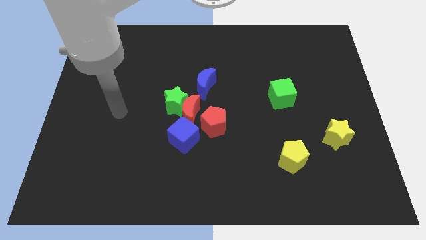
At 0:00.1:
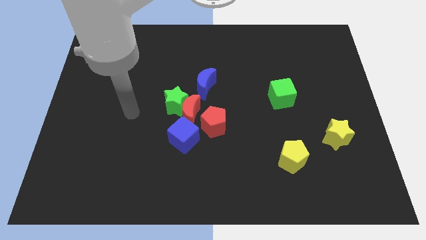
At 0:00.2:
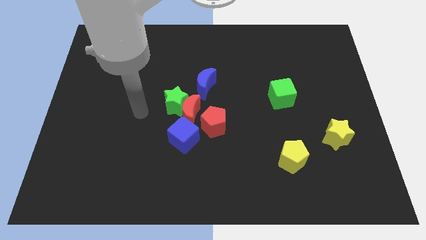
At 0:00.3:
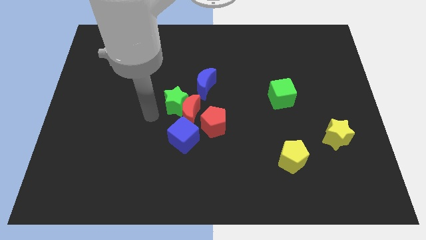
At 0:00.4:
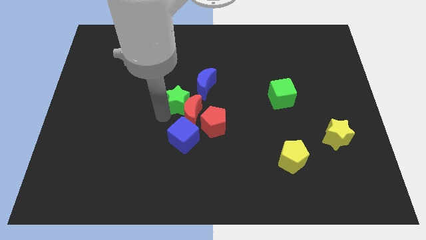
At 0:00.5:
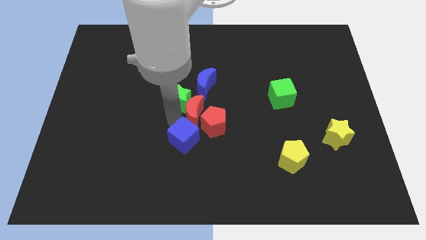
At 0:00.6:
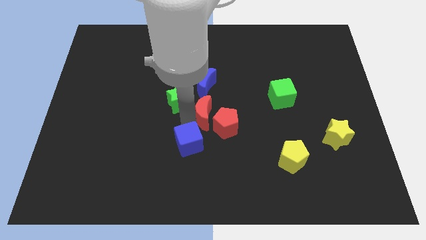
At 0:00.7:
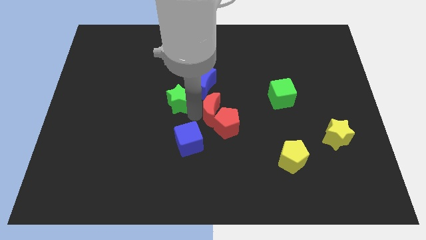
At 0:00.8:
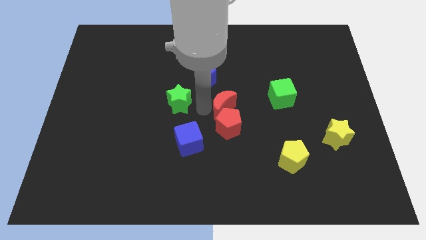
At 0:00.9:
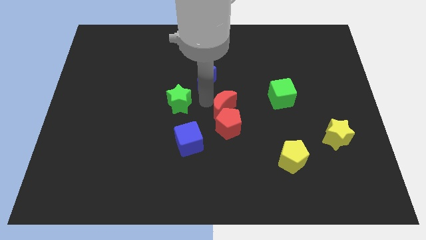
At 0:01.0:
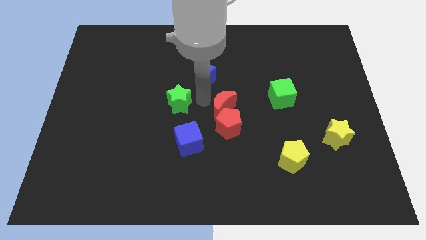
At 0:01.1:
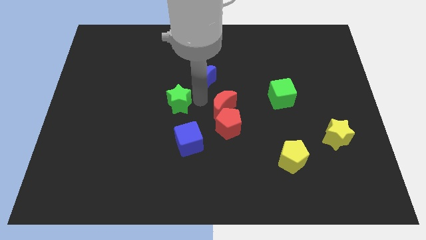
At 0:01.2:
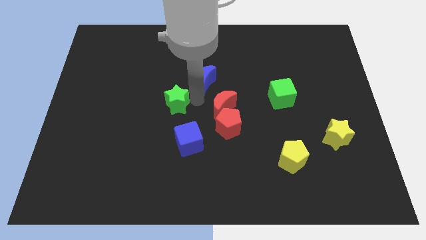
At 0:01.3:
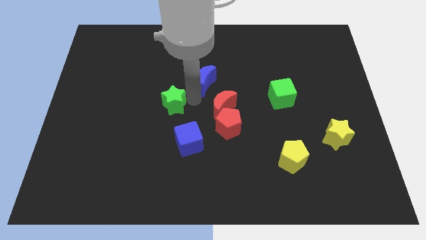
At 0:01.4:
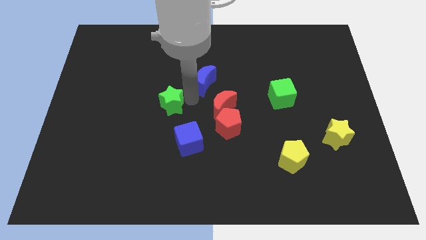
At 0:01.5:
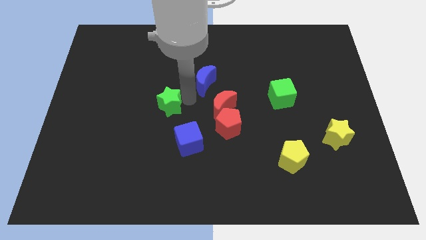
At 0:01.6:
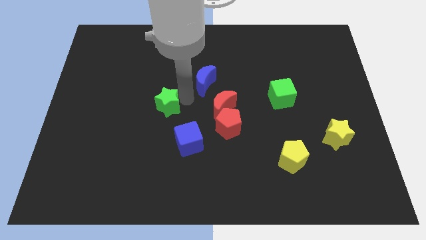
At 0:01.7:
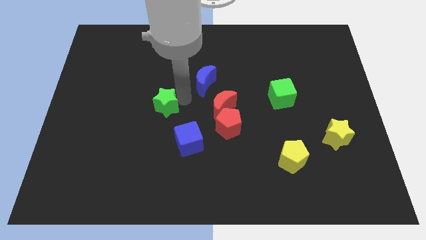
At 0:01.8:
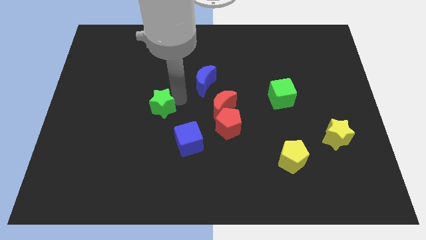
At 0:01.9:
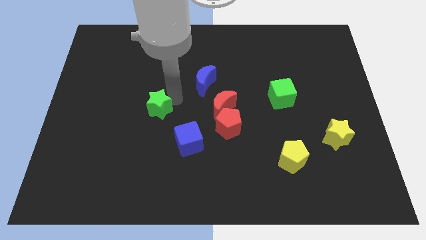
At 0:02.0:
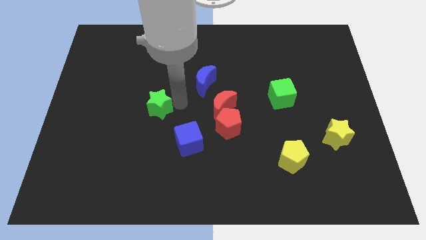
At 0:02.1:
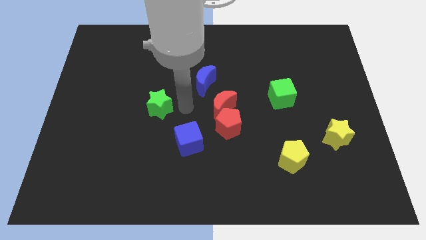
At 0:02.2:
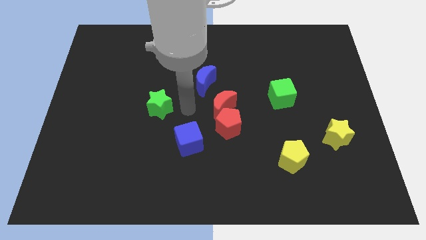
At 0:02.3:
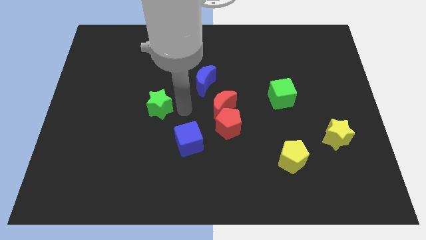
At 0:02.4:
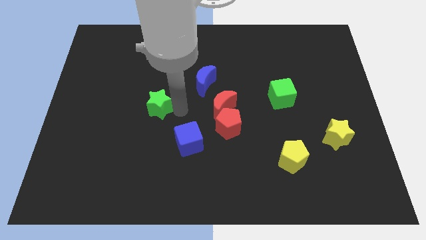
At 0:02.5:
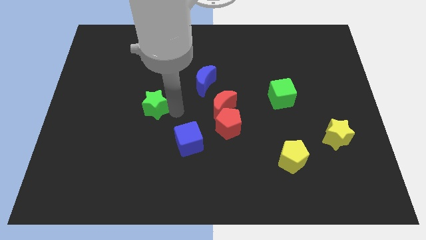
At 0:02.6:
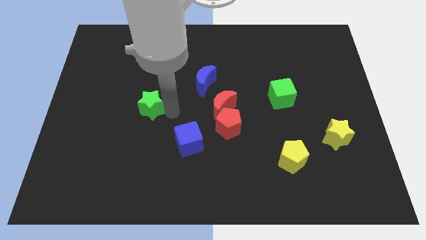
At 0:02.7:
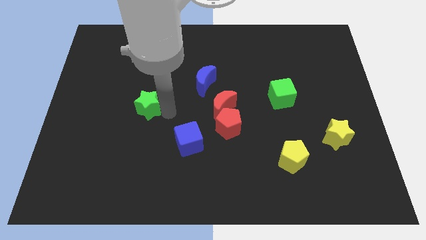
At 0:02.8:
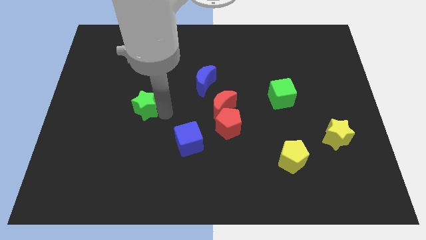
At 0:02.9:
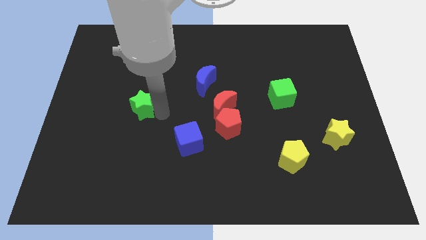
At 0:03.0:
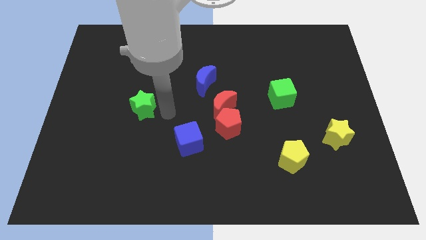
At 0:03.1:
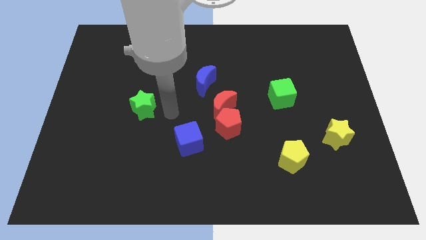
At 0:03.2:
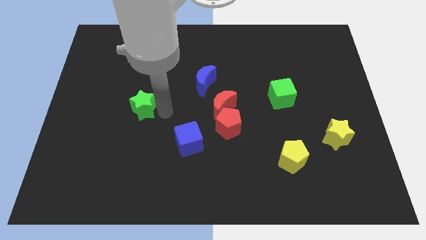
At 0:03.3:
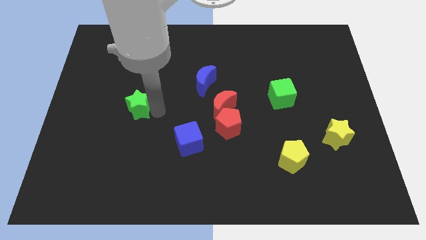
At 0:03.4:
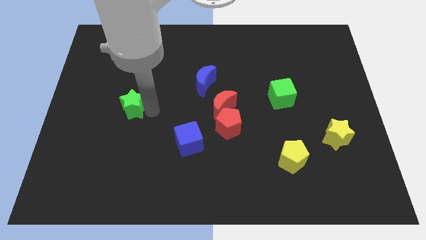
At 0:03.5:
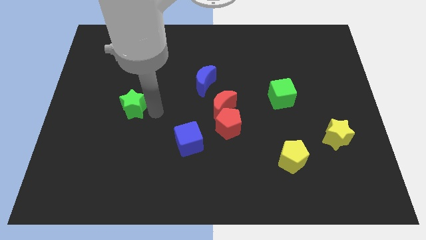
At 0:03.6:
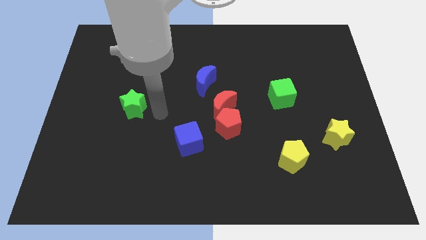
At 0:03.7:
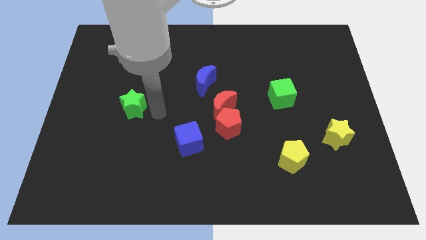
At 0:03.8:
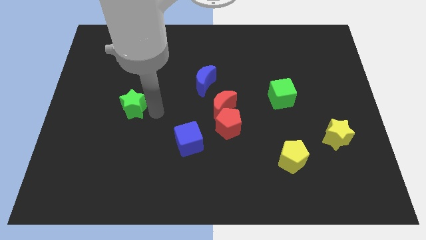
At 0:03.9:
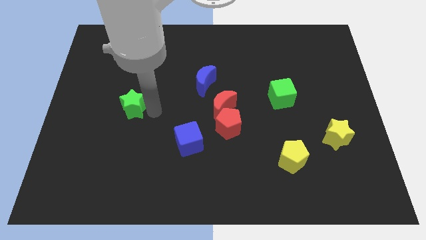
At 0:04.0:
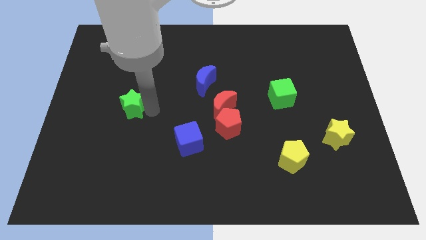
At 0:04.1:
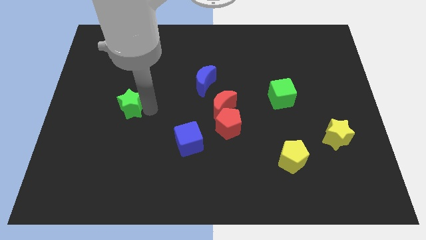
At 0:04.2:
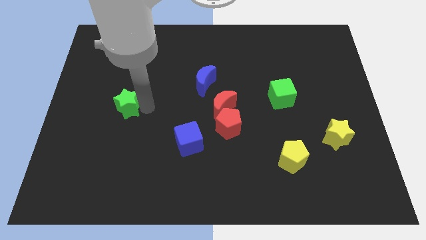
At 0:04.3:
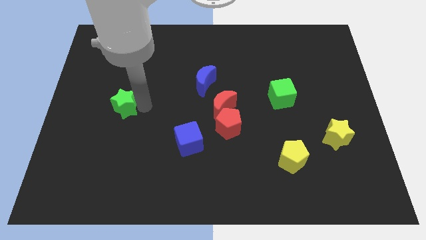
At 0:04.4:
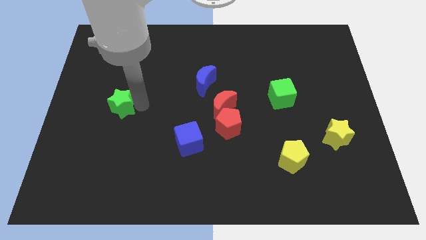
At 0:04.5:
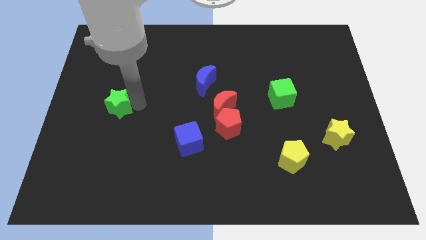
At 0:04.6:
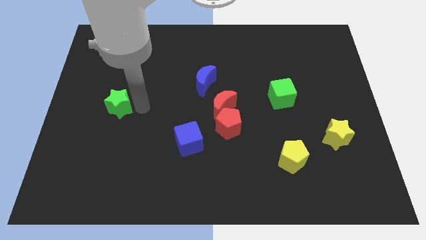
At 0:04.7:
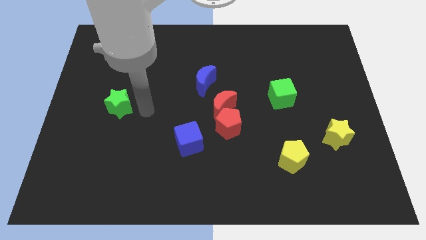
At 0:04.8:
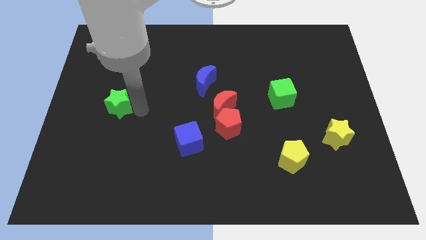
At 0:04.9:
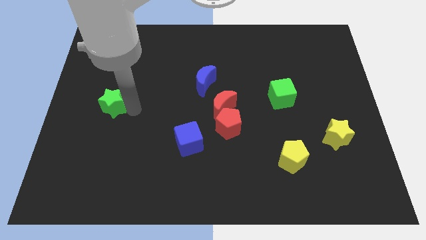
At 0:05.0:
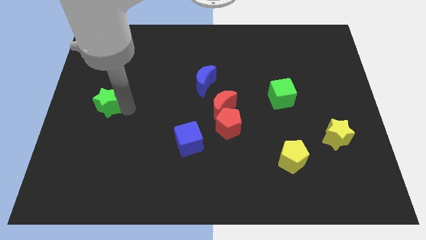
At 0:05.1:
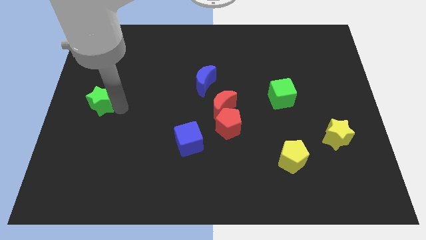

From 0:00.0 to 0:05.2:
push the green star to the center left

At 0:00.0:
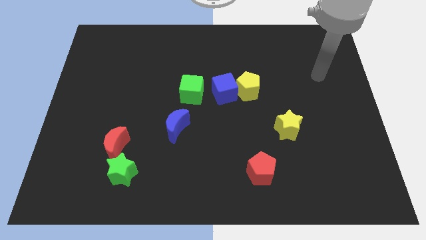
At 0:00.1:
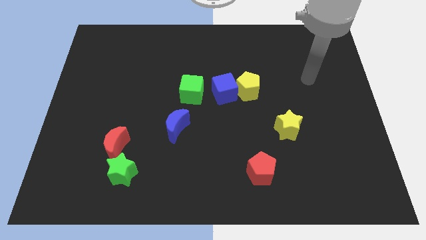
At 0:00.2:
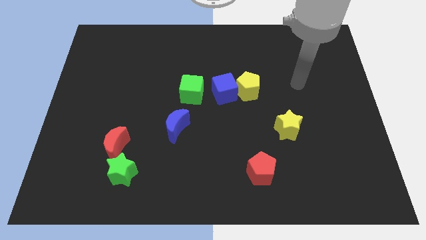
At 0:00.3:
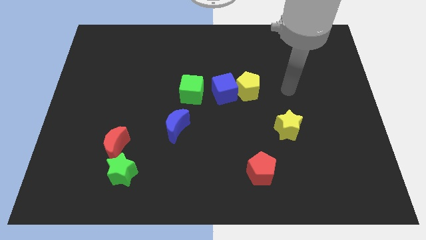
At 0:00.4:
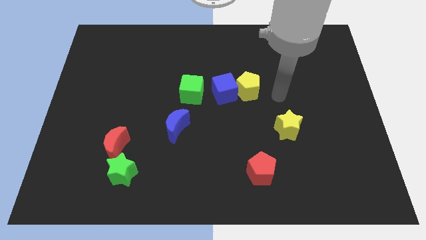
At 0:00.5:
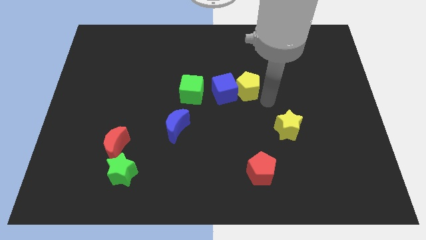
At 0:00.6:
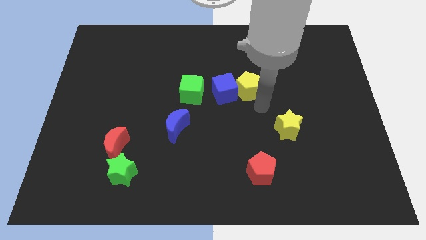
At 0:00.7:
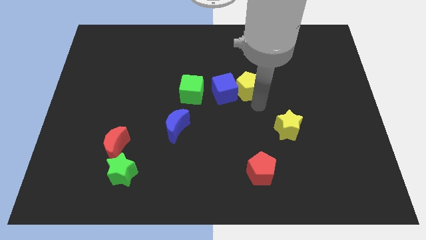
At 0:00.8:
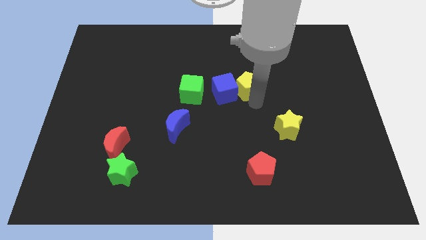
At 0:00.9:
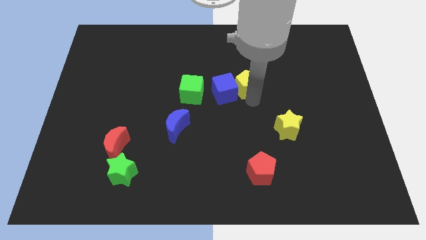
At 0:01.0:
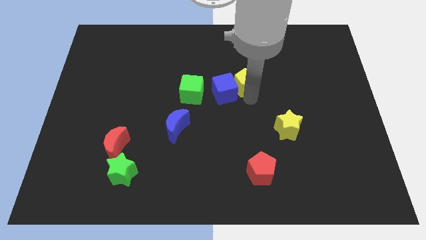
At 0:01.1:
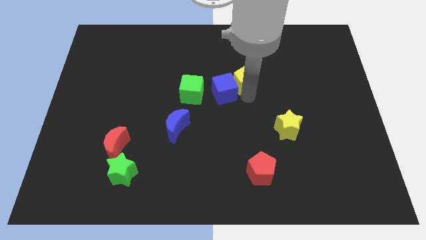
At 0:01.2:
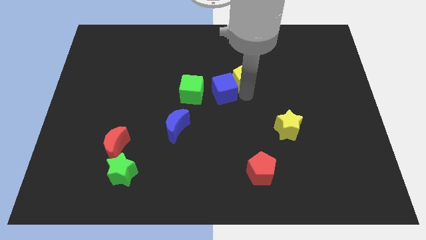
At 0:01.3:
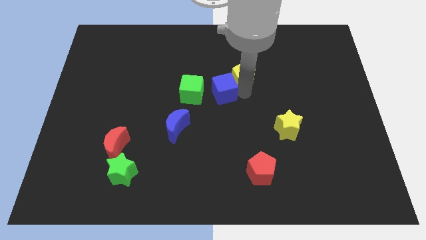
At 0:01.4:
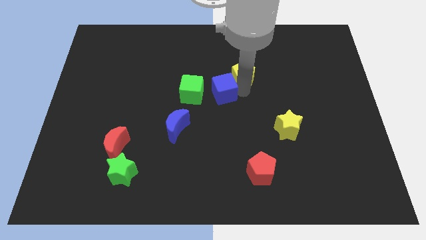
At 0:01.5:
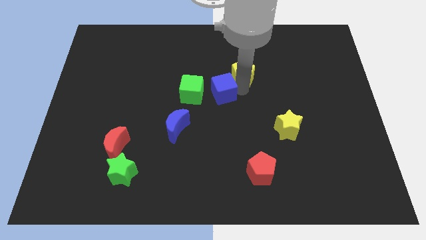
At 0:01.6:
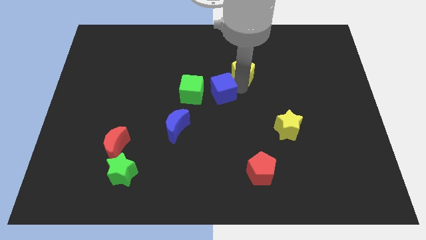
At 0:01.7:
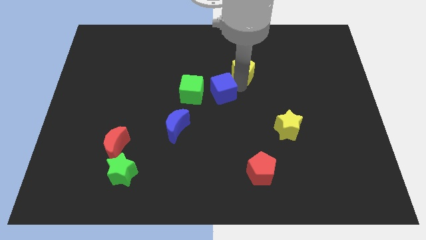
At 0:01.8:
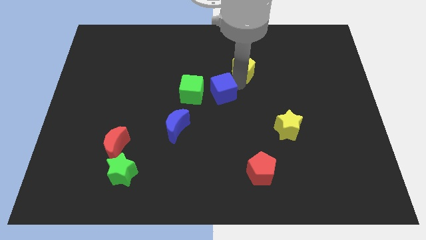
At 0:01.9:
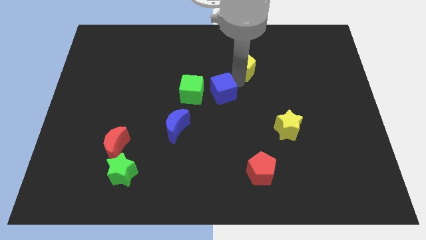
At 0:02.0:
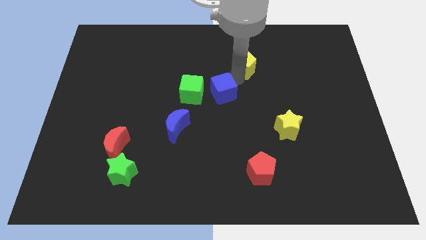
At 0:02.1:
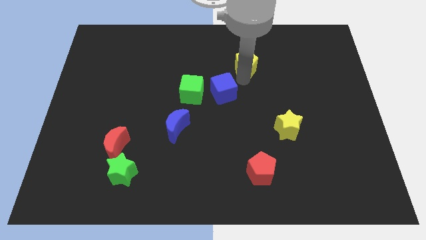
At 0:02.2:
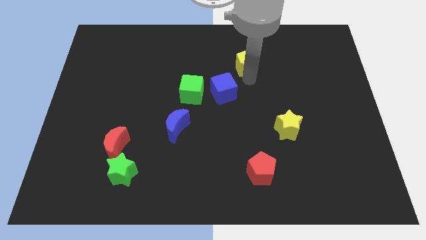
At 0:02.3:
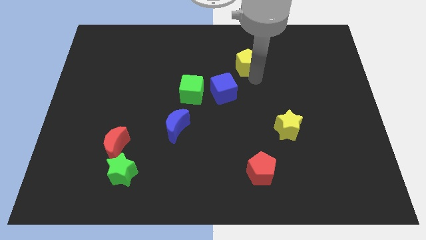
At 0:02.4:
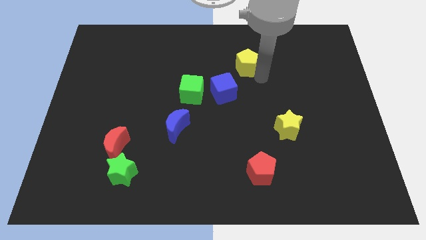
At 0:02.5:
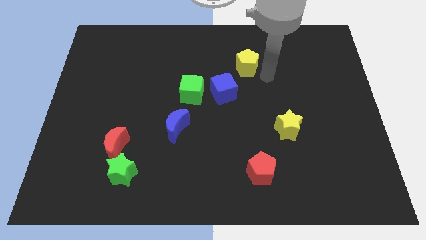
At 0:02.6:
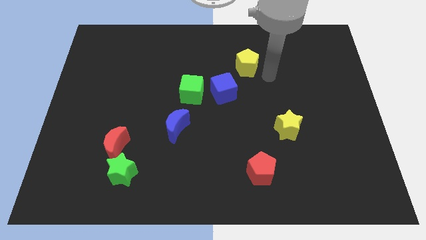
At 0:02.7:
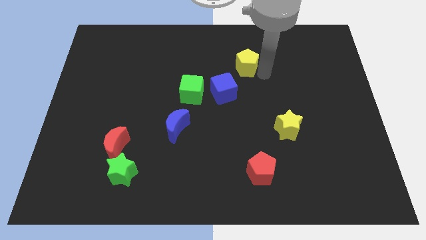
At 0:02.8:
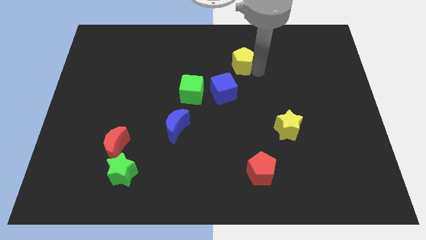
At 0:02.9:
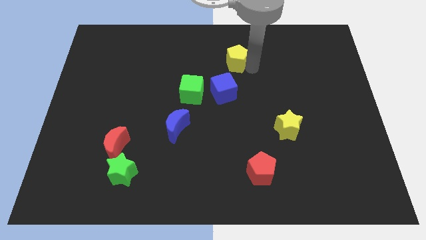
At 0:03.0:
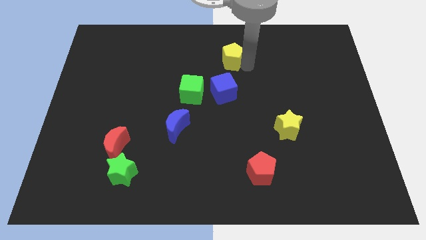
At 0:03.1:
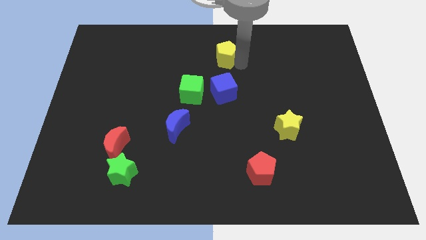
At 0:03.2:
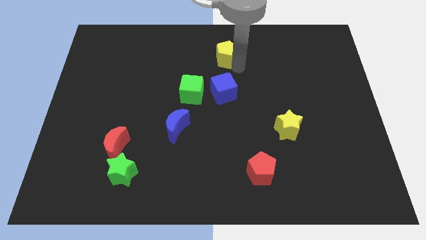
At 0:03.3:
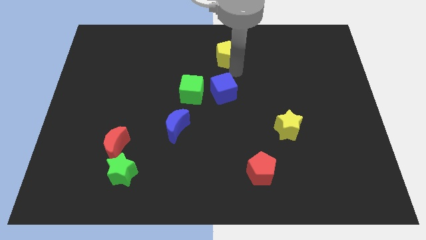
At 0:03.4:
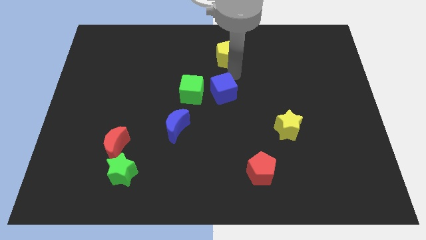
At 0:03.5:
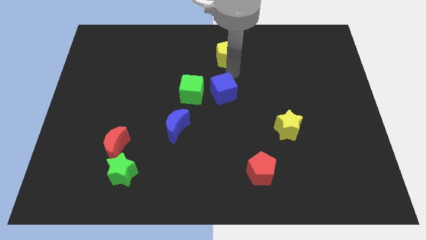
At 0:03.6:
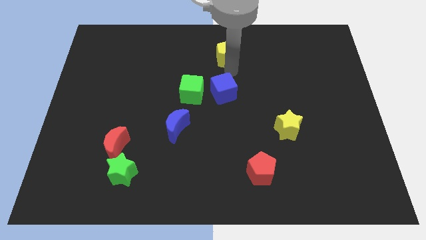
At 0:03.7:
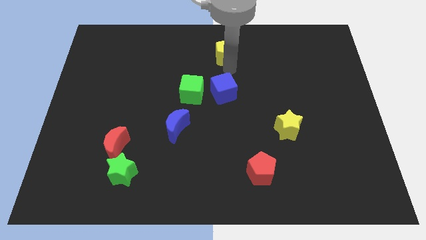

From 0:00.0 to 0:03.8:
slide the yellow pentagon to the towards your base
